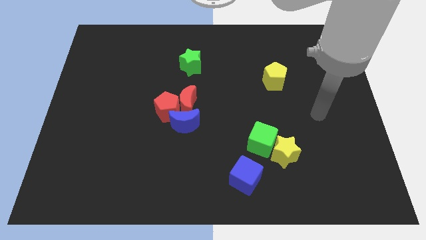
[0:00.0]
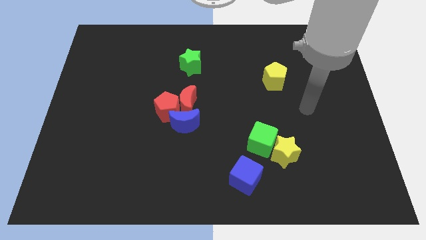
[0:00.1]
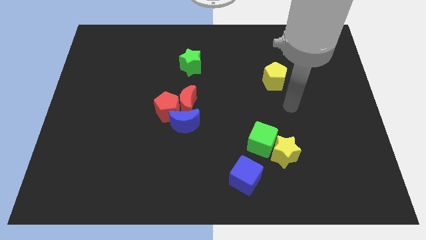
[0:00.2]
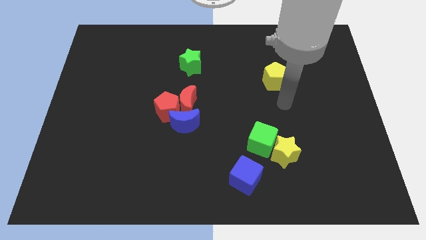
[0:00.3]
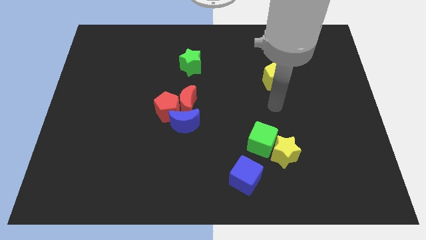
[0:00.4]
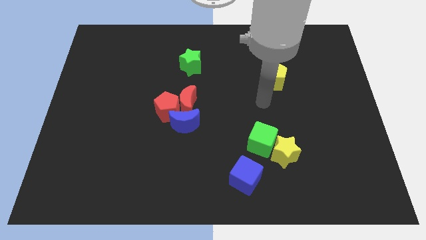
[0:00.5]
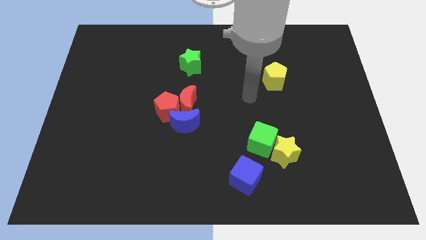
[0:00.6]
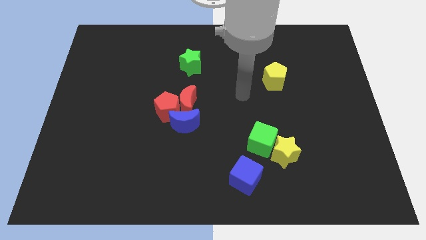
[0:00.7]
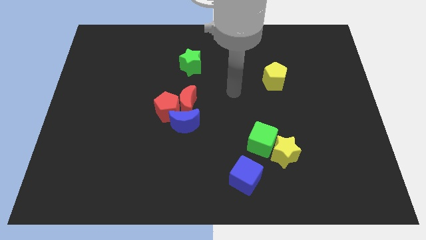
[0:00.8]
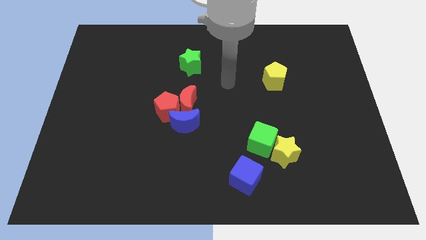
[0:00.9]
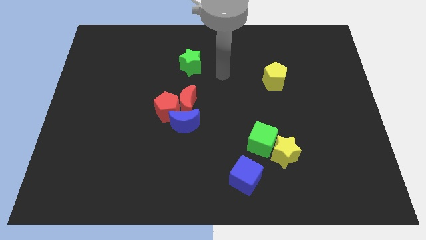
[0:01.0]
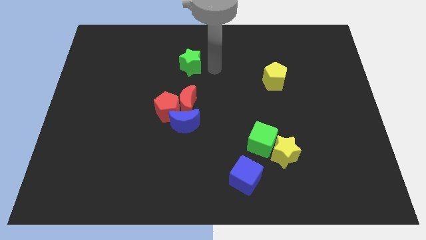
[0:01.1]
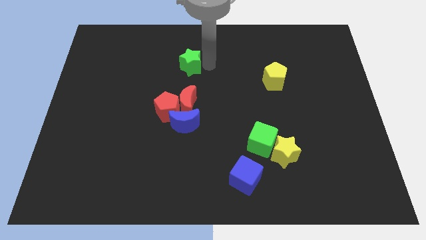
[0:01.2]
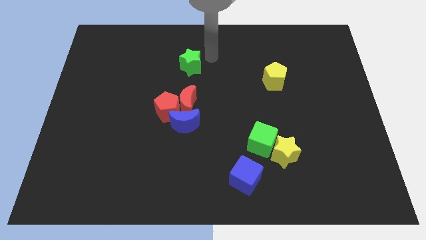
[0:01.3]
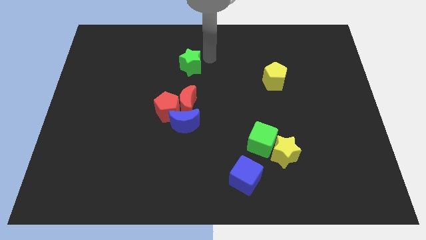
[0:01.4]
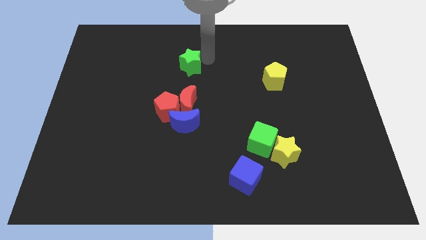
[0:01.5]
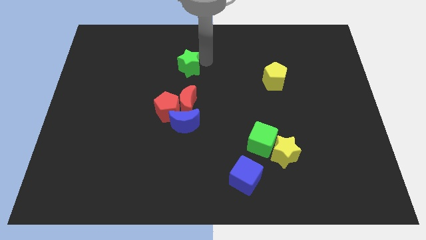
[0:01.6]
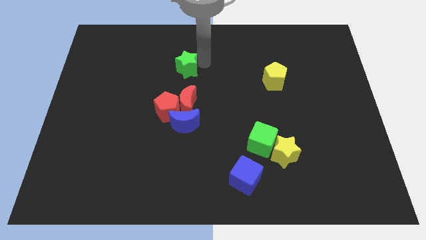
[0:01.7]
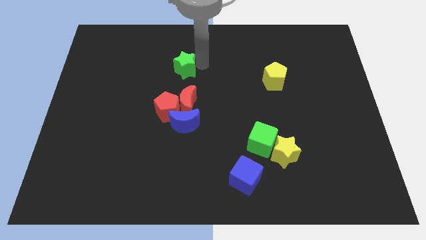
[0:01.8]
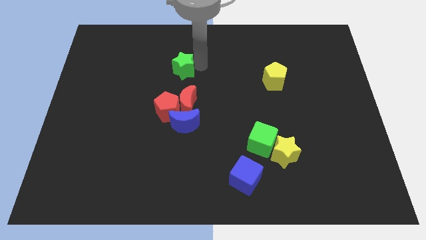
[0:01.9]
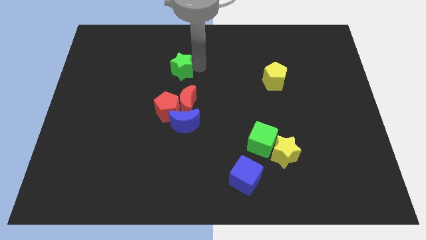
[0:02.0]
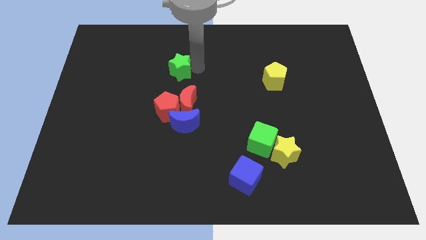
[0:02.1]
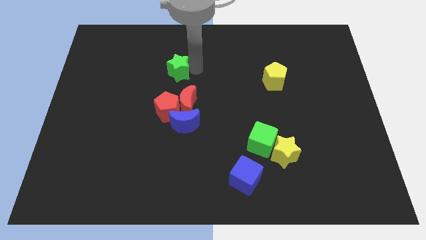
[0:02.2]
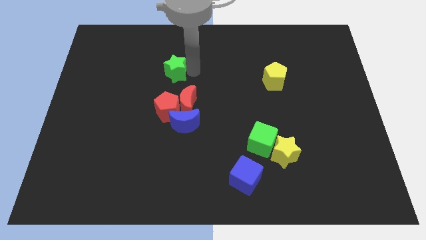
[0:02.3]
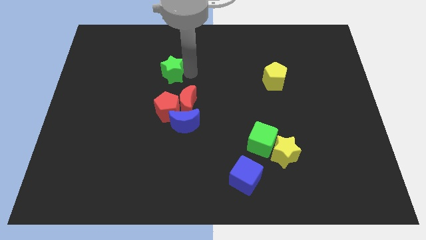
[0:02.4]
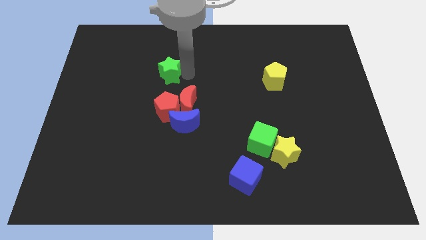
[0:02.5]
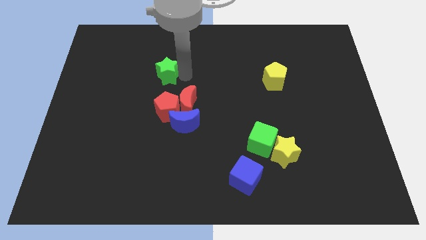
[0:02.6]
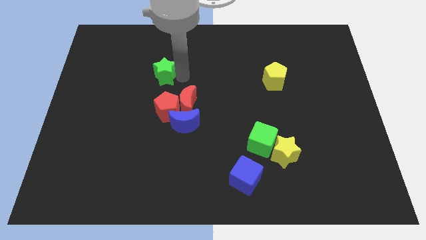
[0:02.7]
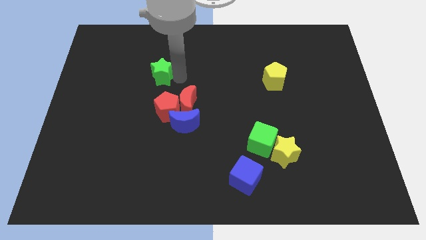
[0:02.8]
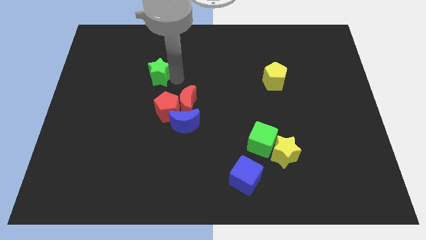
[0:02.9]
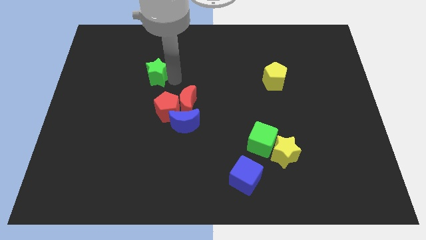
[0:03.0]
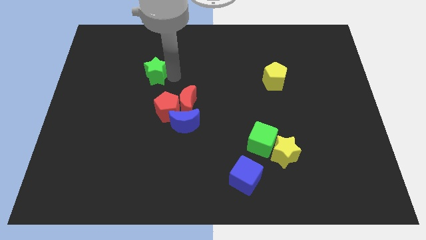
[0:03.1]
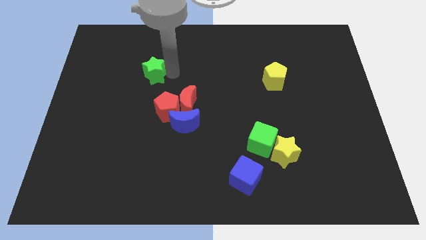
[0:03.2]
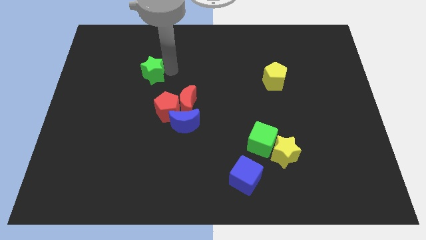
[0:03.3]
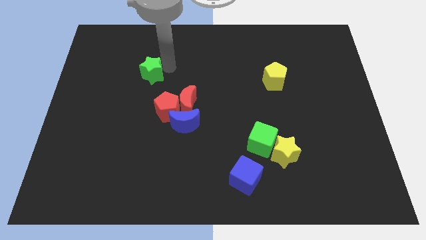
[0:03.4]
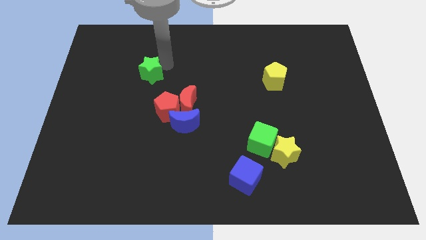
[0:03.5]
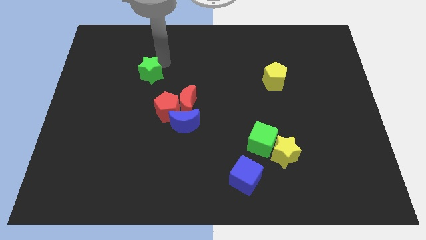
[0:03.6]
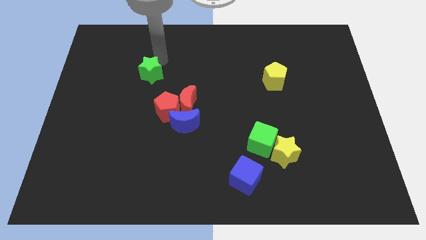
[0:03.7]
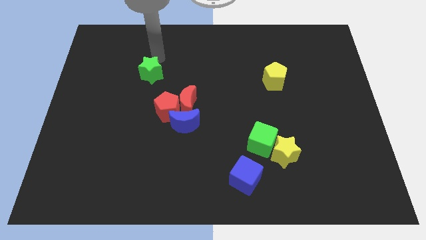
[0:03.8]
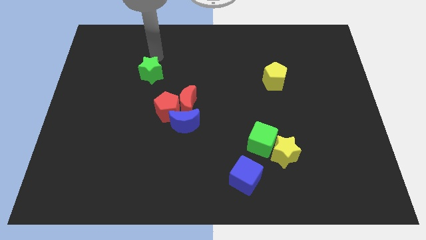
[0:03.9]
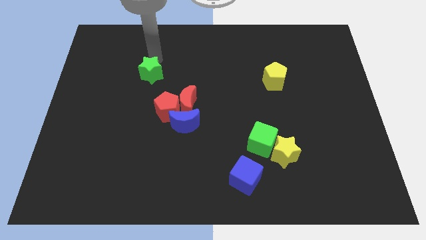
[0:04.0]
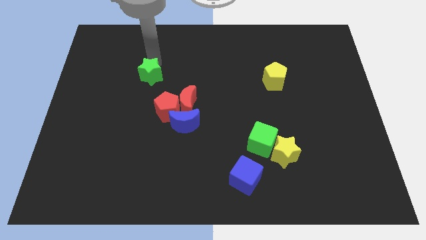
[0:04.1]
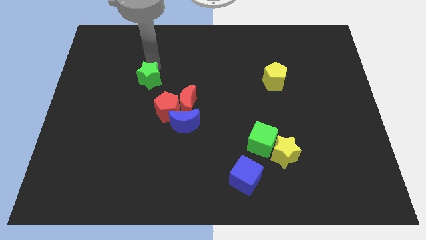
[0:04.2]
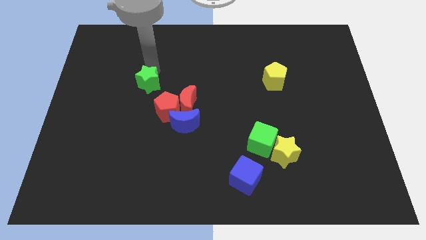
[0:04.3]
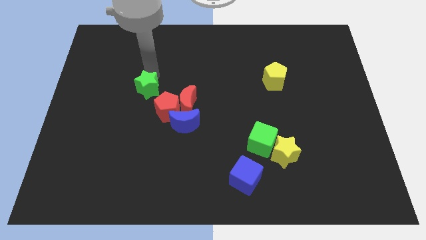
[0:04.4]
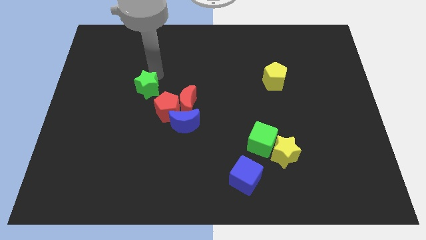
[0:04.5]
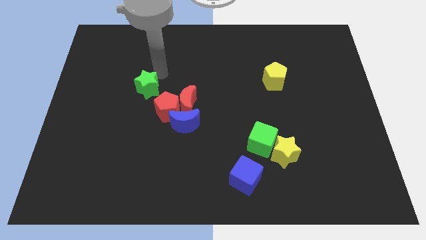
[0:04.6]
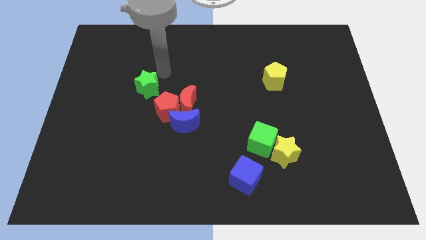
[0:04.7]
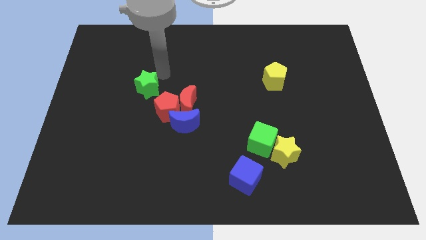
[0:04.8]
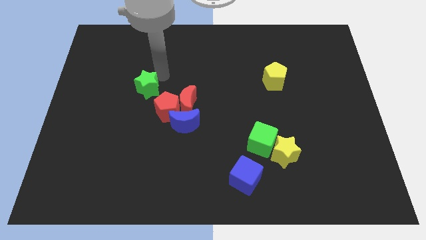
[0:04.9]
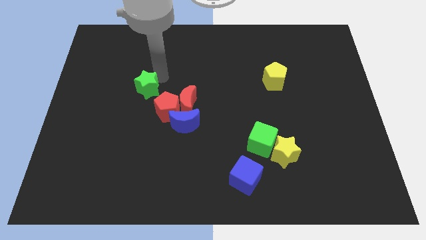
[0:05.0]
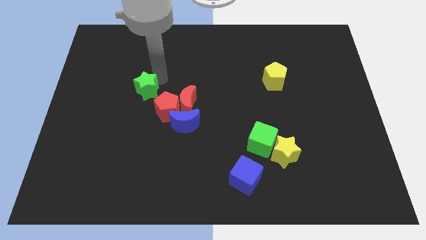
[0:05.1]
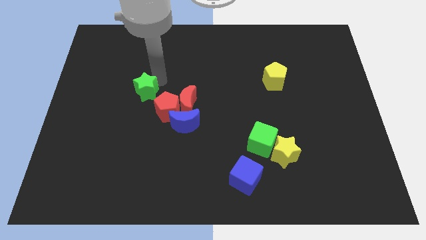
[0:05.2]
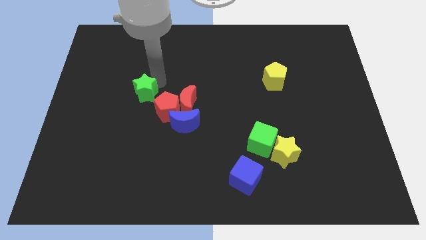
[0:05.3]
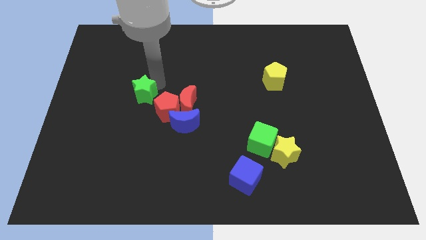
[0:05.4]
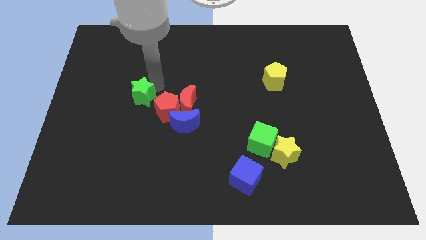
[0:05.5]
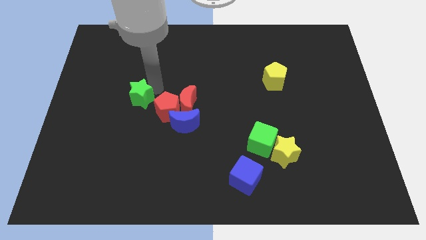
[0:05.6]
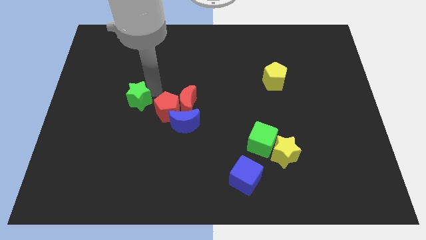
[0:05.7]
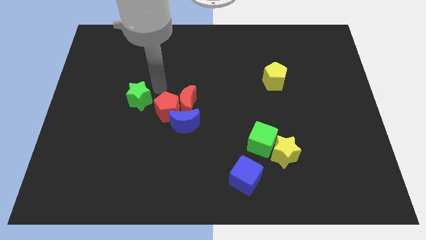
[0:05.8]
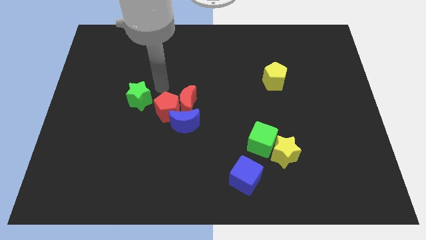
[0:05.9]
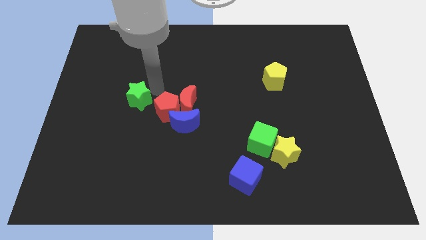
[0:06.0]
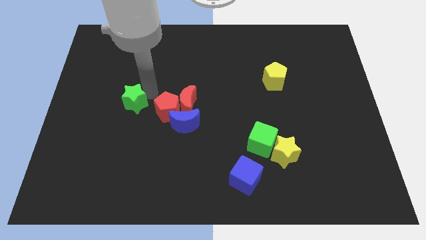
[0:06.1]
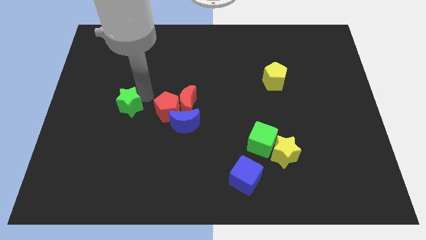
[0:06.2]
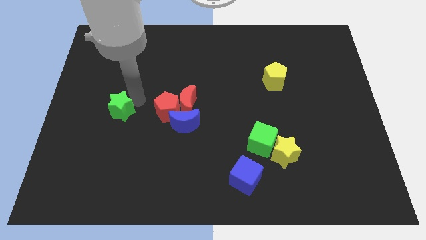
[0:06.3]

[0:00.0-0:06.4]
slide the green star diagonally down and left

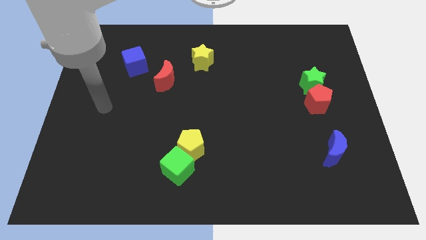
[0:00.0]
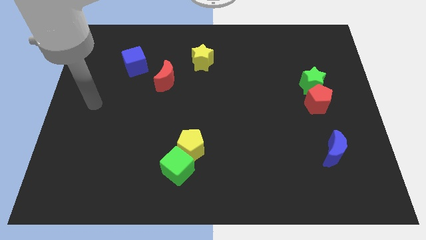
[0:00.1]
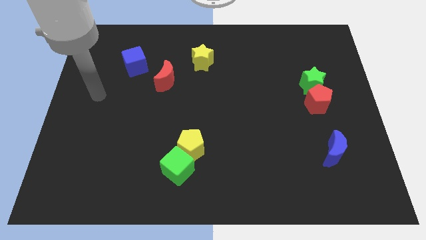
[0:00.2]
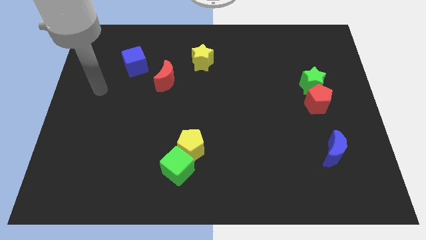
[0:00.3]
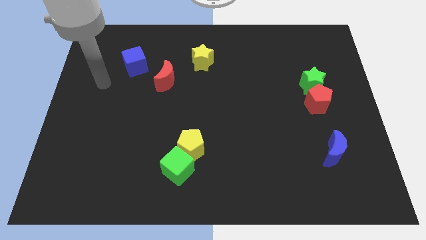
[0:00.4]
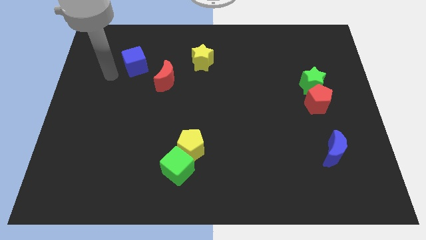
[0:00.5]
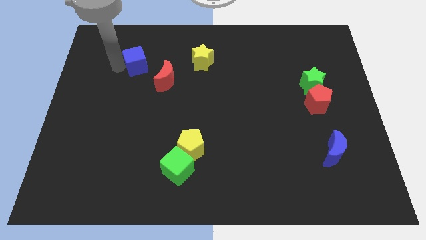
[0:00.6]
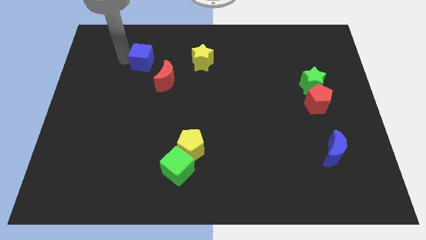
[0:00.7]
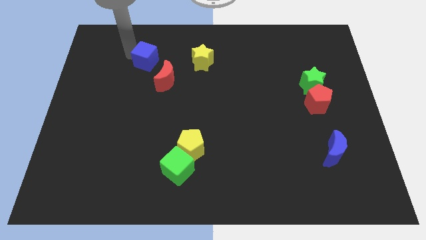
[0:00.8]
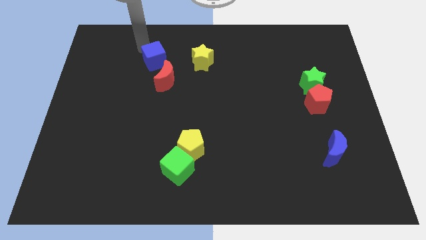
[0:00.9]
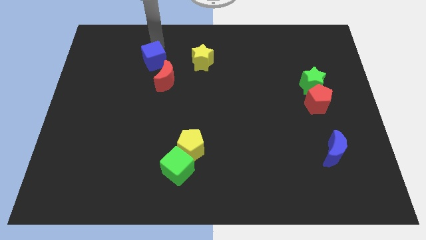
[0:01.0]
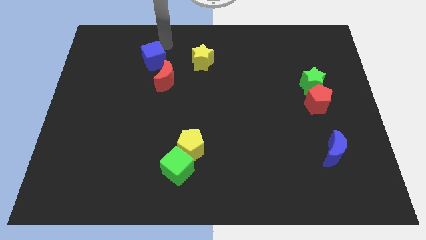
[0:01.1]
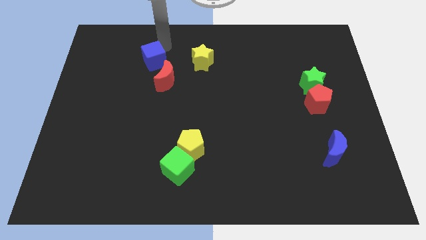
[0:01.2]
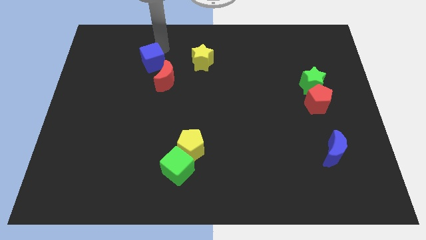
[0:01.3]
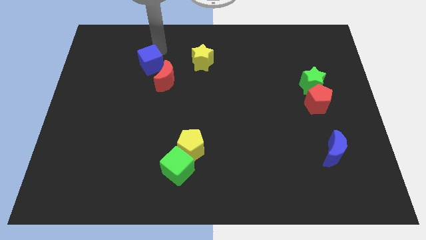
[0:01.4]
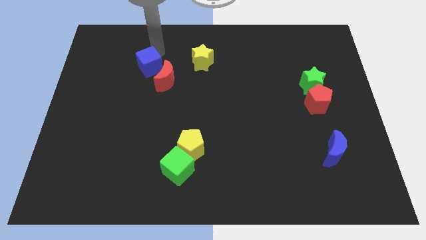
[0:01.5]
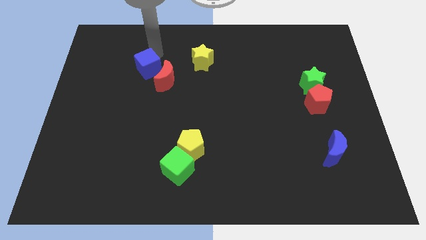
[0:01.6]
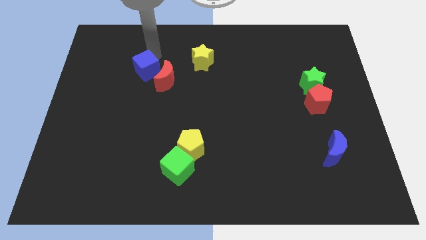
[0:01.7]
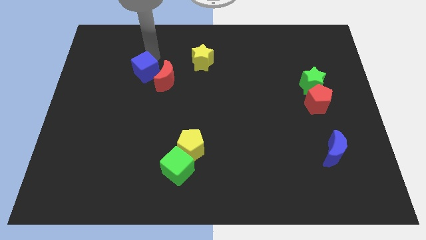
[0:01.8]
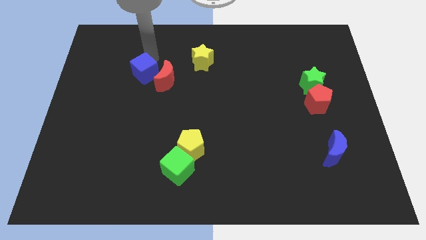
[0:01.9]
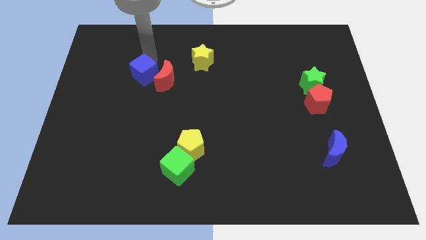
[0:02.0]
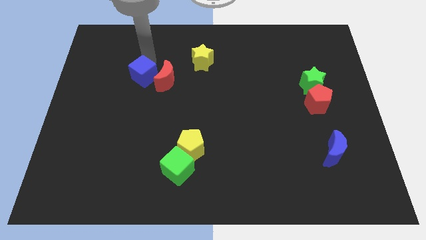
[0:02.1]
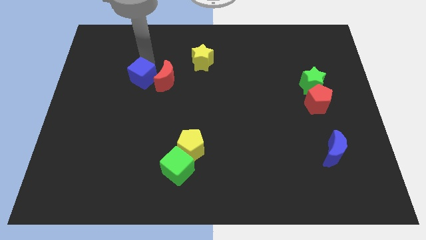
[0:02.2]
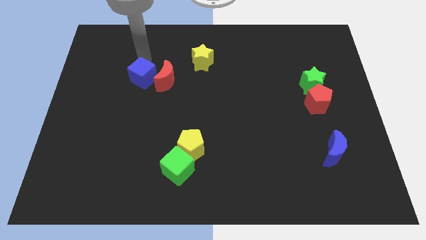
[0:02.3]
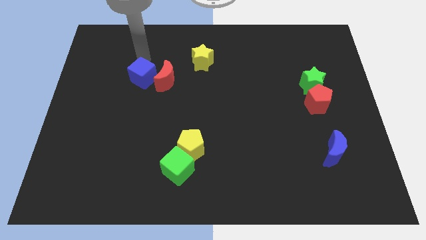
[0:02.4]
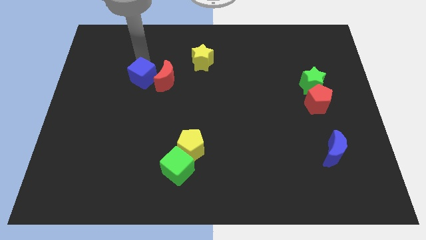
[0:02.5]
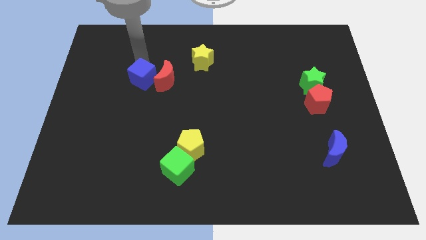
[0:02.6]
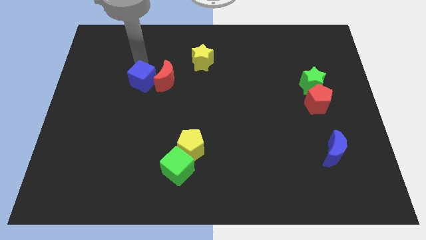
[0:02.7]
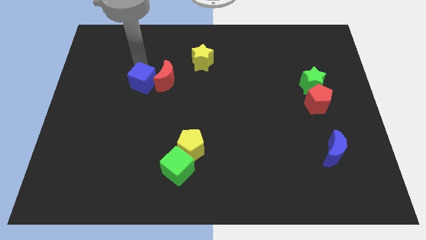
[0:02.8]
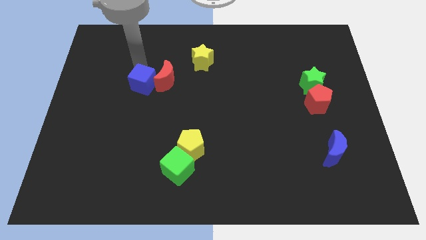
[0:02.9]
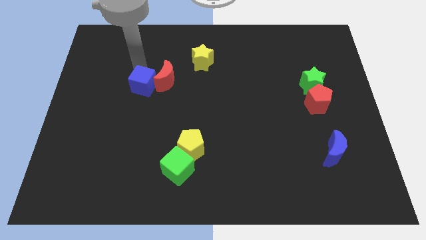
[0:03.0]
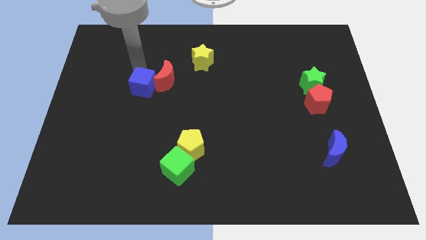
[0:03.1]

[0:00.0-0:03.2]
move the blue cube diagonally down and to the right a little
